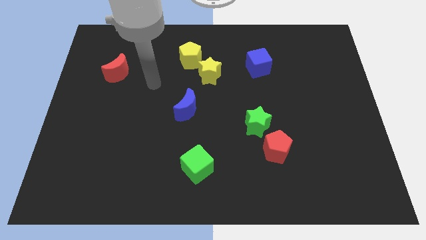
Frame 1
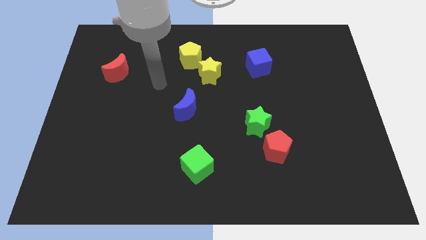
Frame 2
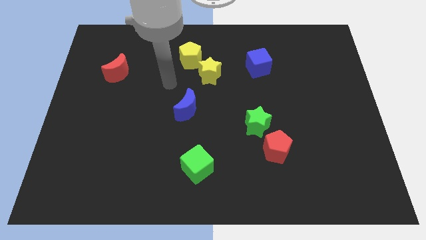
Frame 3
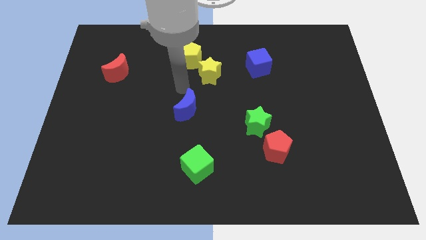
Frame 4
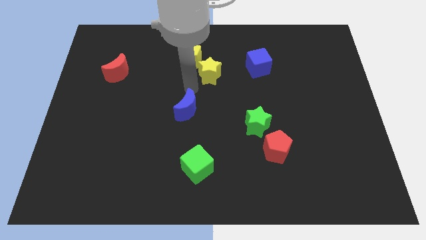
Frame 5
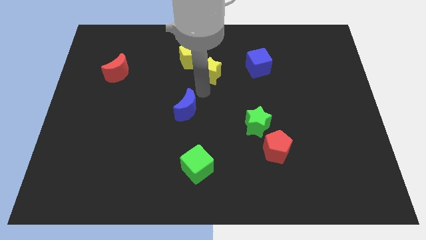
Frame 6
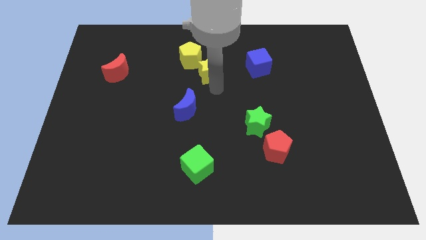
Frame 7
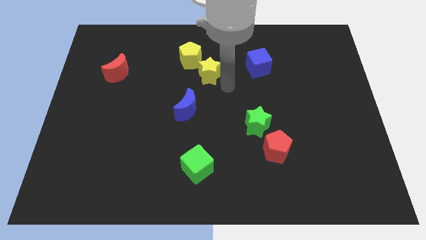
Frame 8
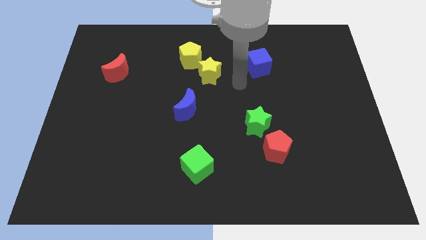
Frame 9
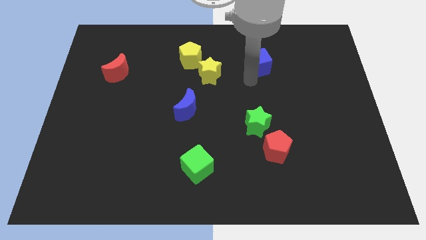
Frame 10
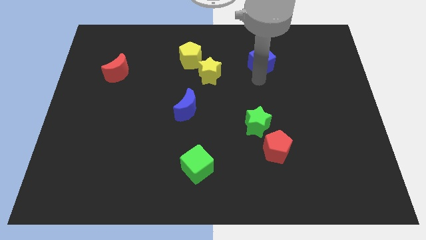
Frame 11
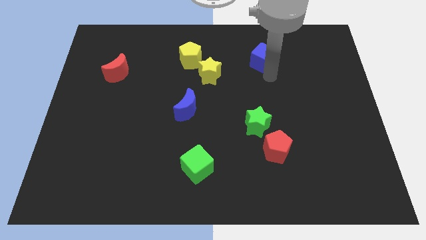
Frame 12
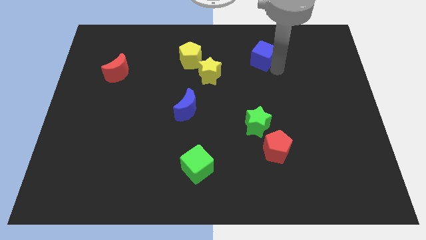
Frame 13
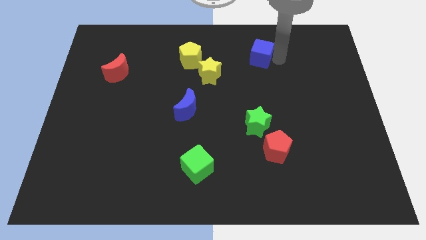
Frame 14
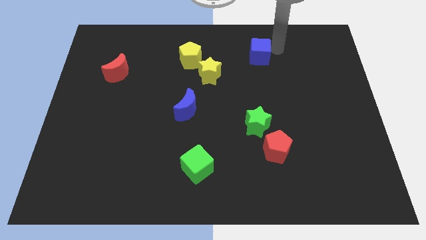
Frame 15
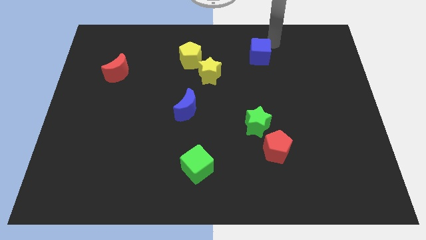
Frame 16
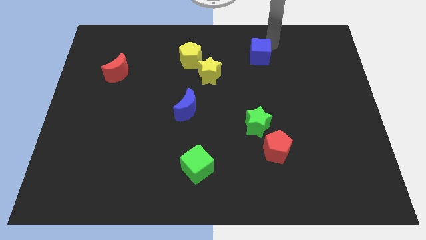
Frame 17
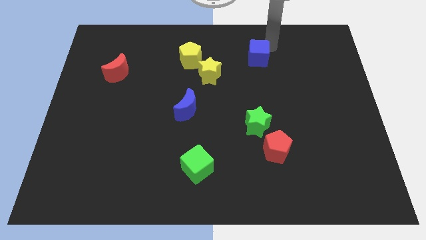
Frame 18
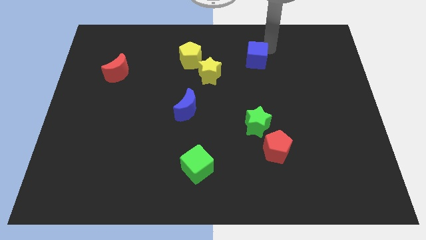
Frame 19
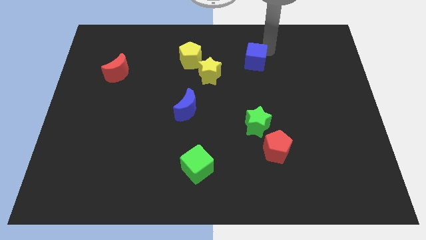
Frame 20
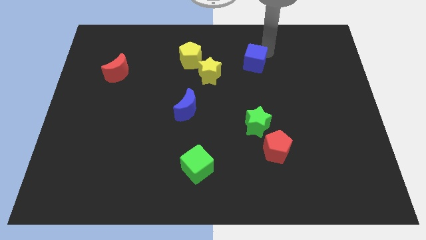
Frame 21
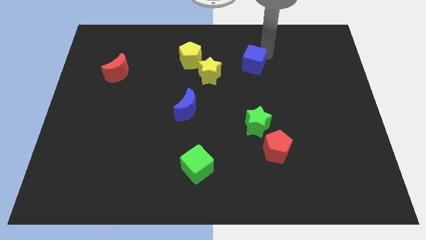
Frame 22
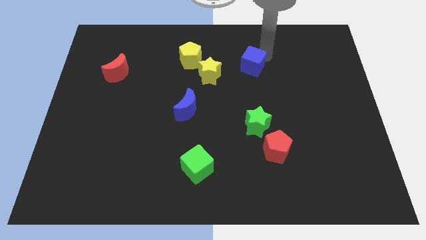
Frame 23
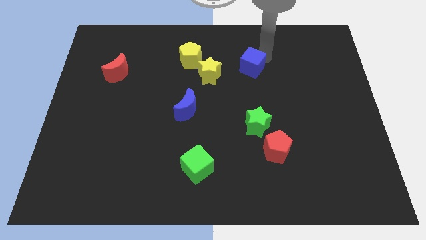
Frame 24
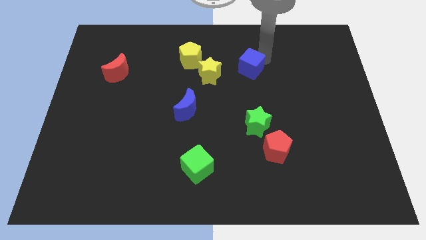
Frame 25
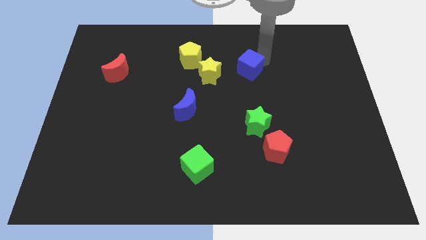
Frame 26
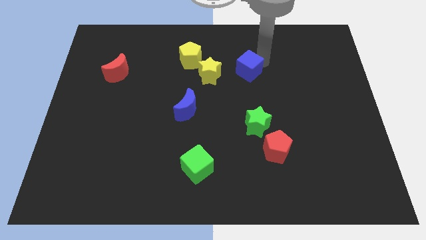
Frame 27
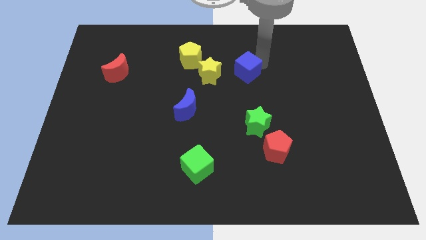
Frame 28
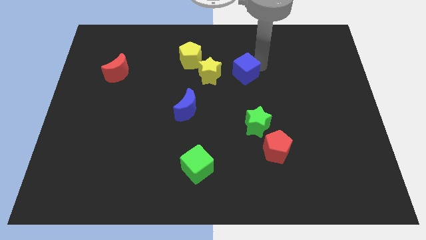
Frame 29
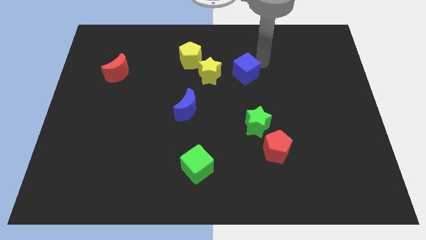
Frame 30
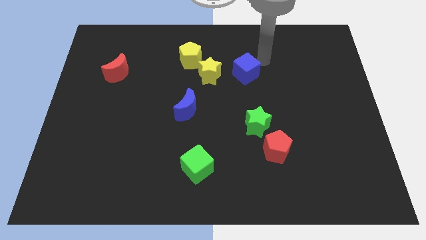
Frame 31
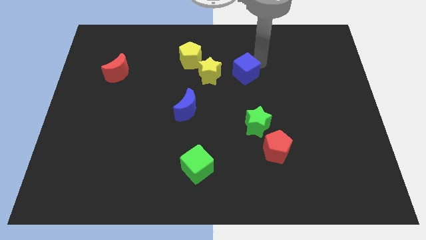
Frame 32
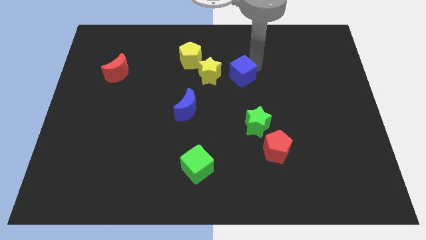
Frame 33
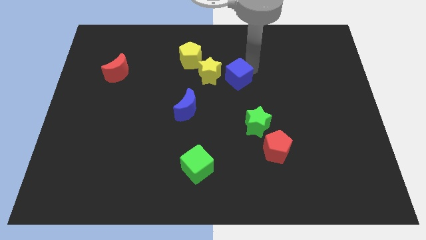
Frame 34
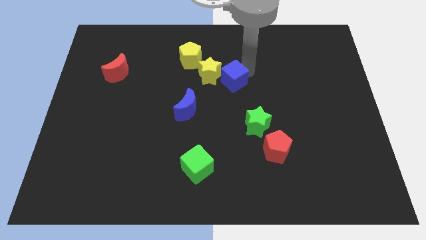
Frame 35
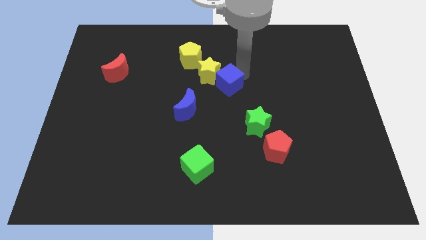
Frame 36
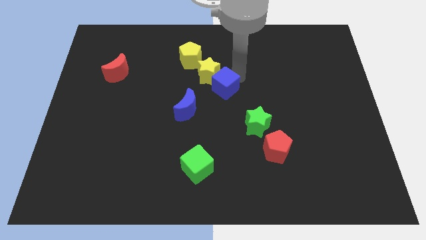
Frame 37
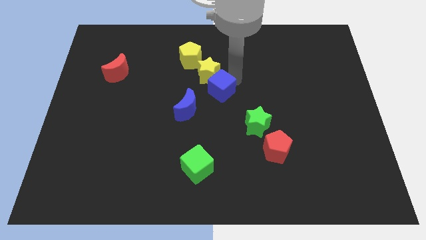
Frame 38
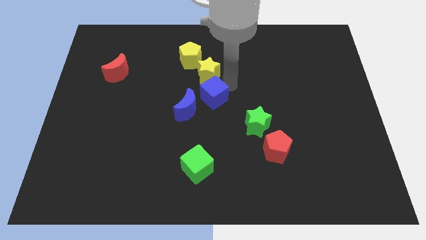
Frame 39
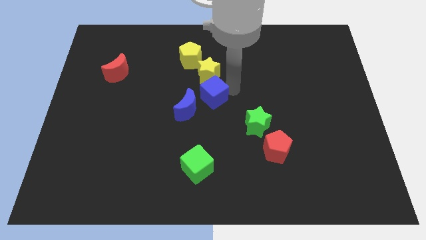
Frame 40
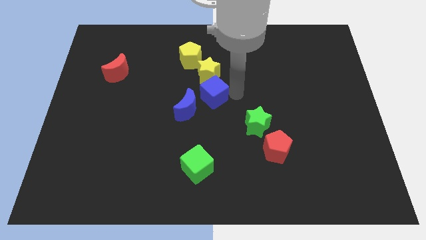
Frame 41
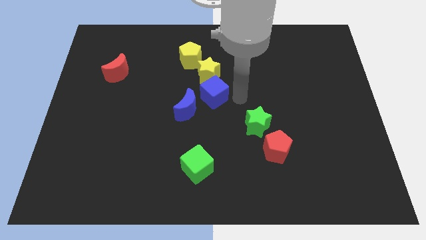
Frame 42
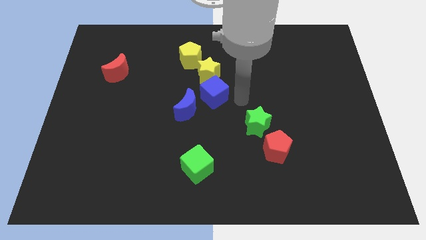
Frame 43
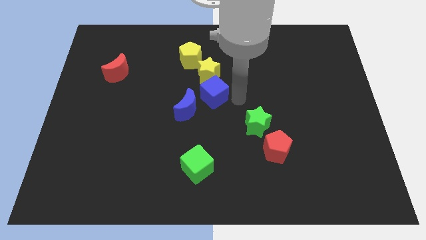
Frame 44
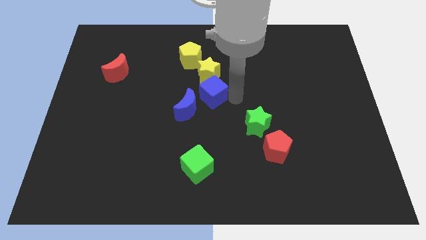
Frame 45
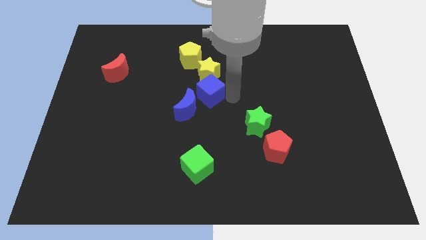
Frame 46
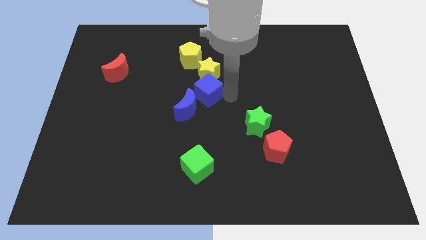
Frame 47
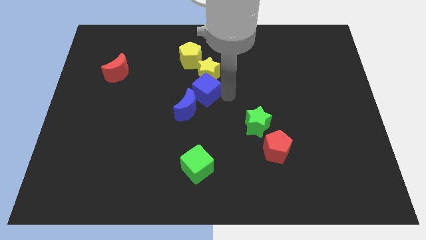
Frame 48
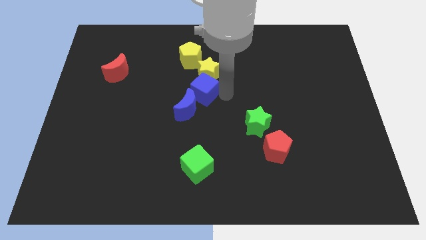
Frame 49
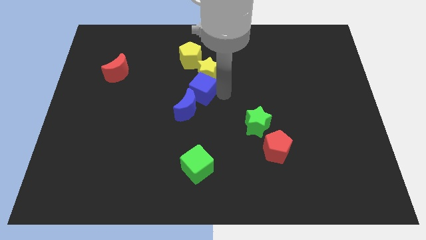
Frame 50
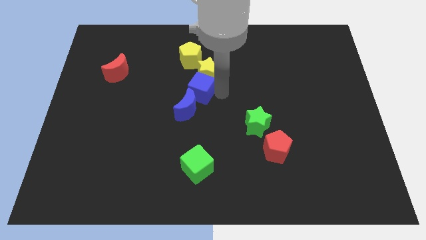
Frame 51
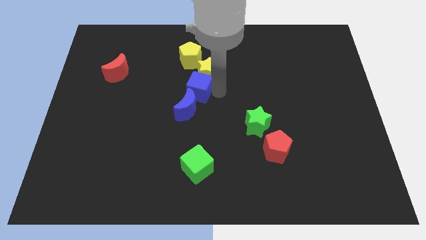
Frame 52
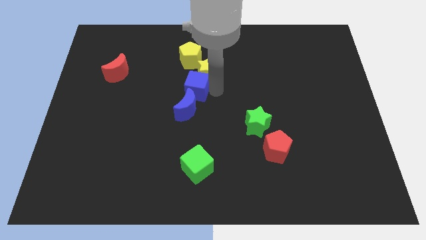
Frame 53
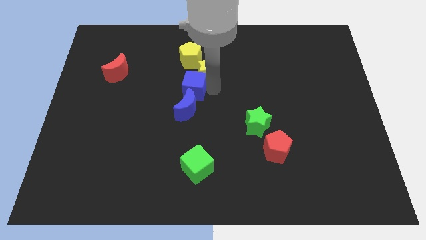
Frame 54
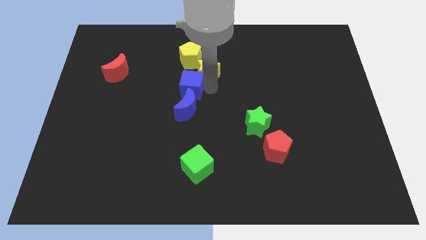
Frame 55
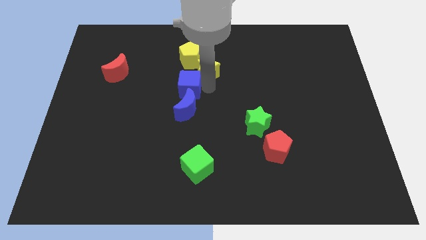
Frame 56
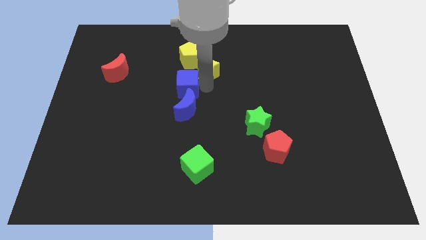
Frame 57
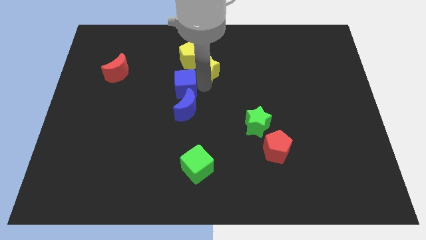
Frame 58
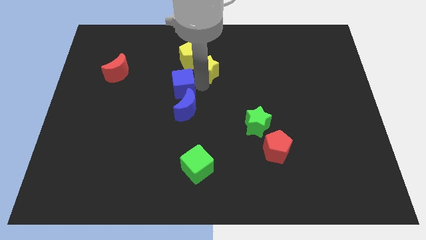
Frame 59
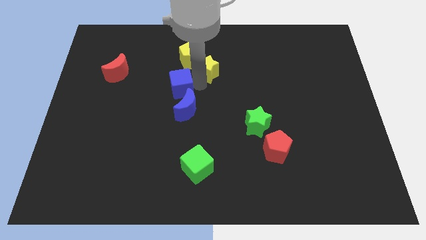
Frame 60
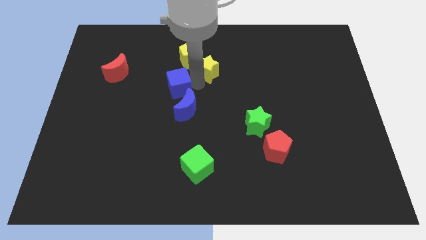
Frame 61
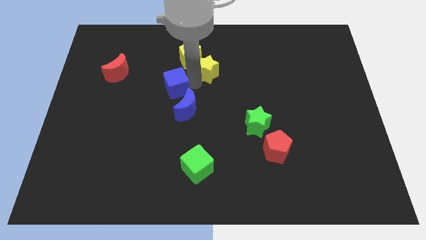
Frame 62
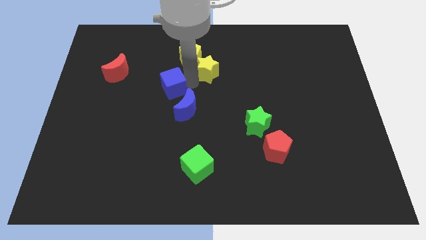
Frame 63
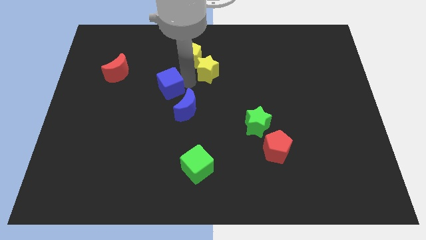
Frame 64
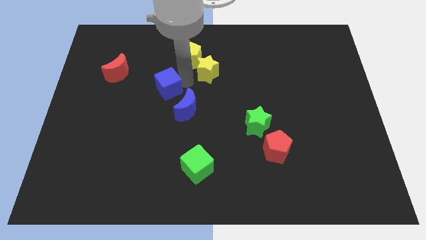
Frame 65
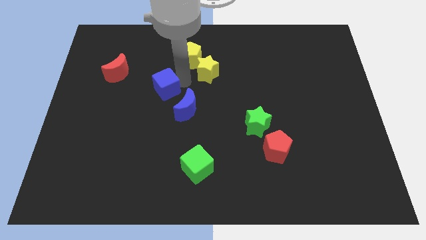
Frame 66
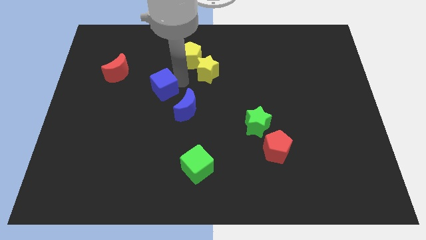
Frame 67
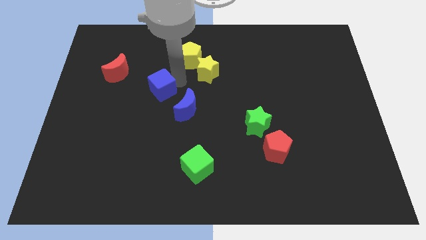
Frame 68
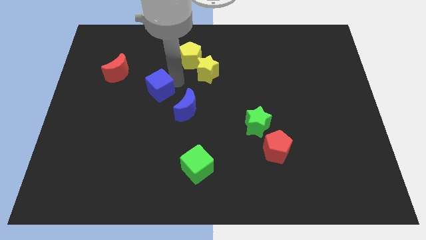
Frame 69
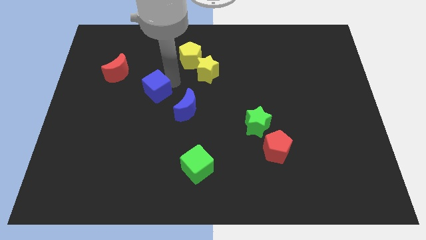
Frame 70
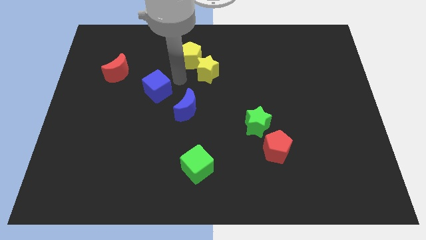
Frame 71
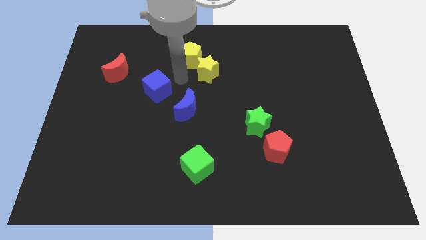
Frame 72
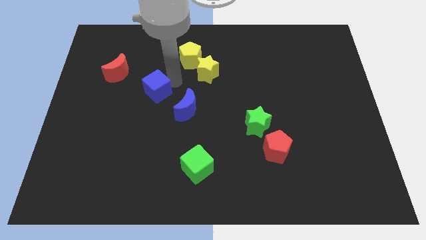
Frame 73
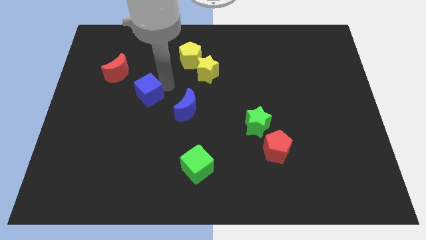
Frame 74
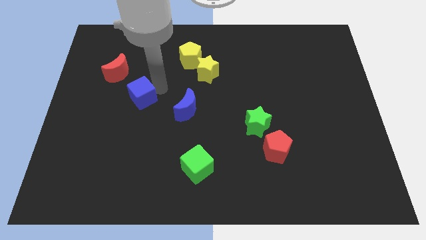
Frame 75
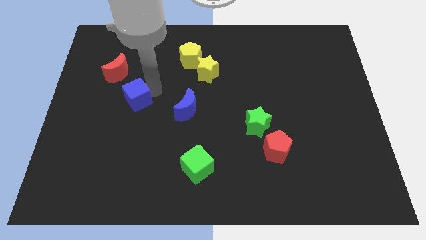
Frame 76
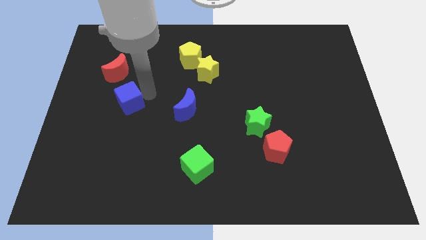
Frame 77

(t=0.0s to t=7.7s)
push the blue cube to the bottom side of the red moon
